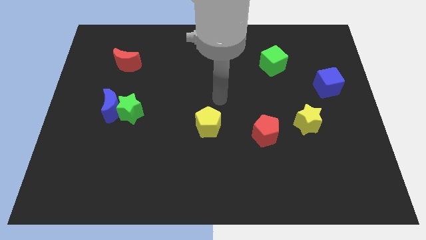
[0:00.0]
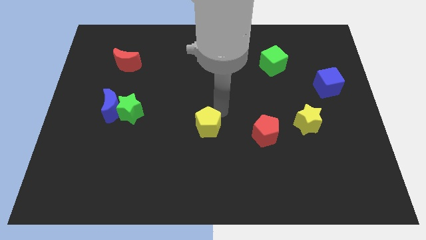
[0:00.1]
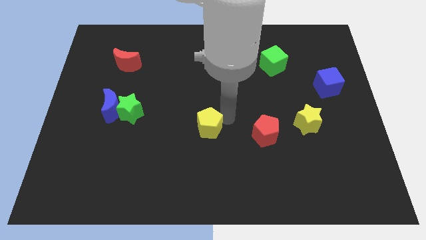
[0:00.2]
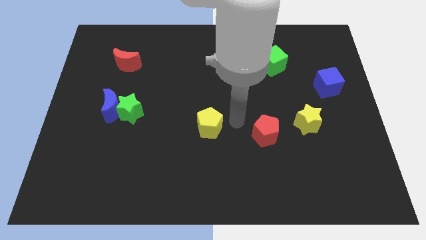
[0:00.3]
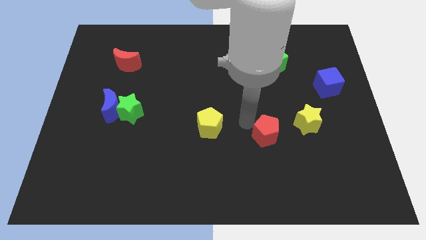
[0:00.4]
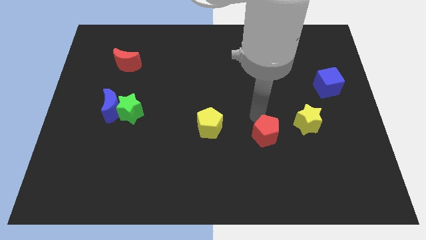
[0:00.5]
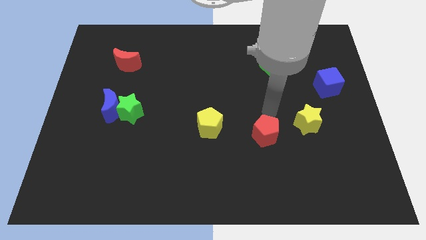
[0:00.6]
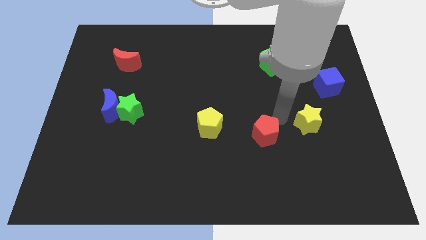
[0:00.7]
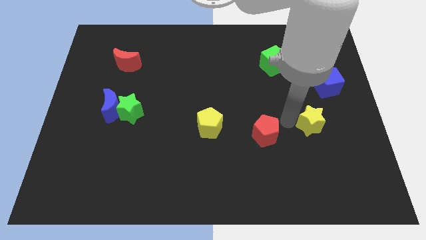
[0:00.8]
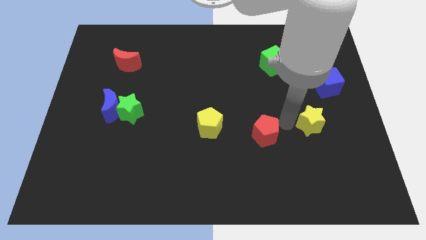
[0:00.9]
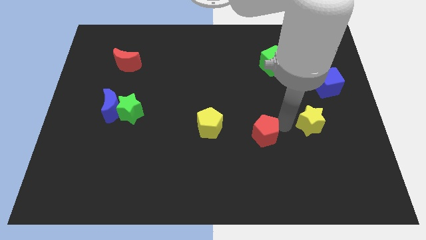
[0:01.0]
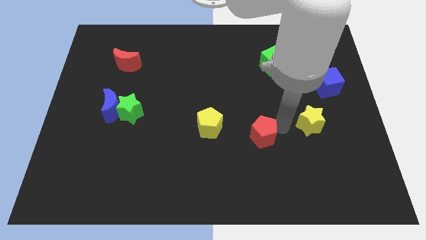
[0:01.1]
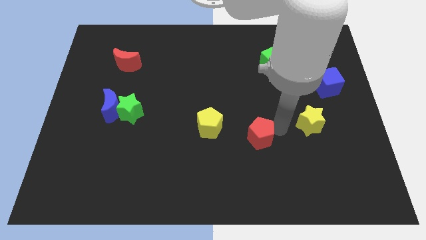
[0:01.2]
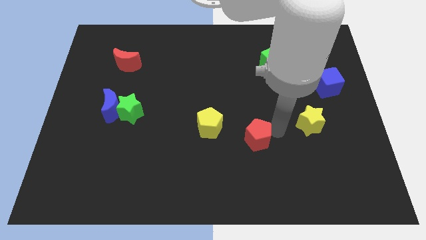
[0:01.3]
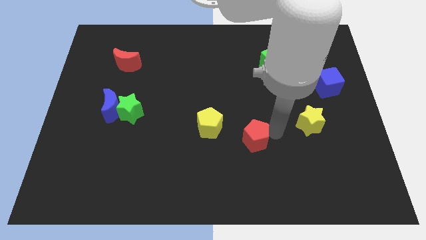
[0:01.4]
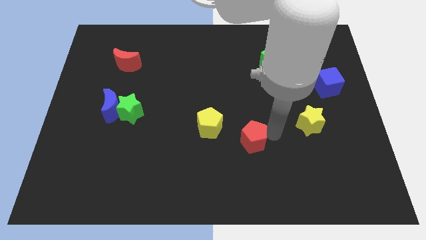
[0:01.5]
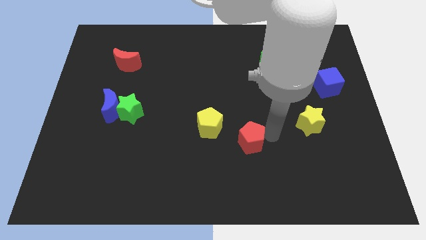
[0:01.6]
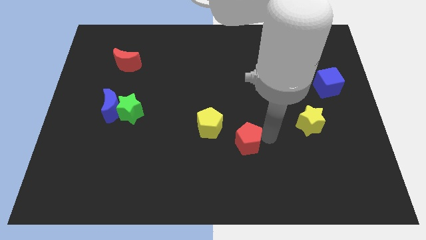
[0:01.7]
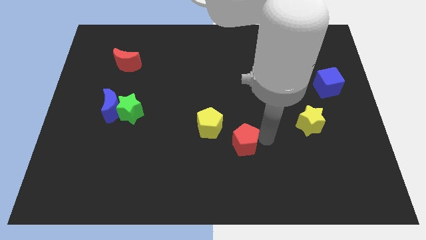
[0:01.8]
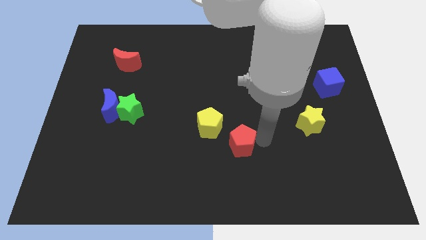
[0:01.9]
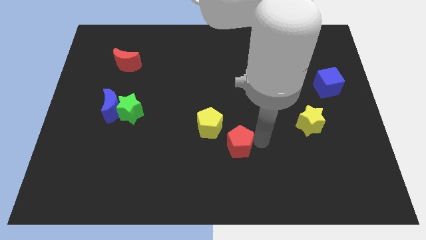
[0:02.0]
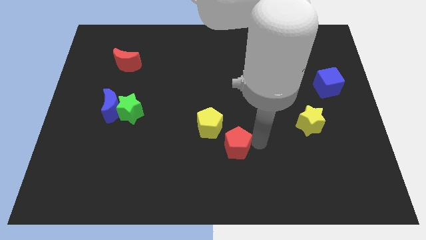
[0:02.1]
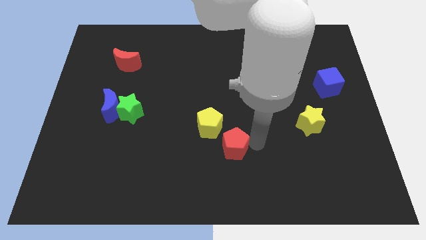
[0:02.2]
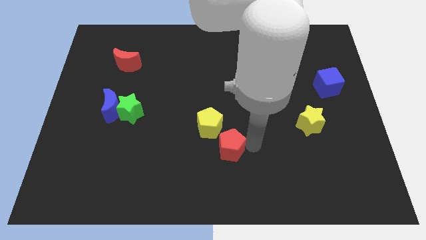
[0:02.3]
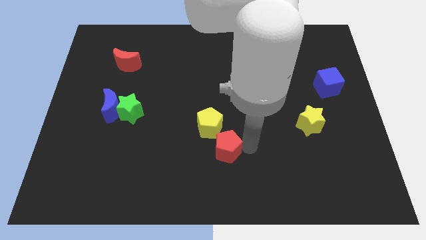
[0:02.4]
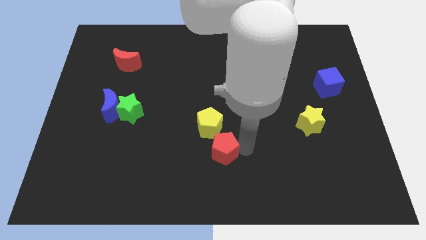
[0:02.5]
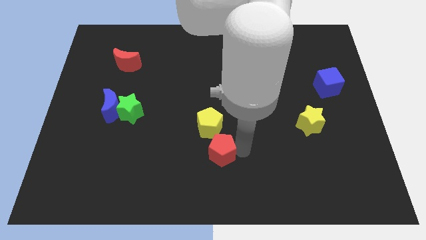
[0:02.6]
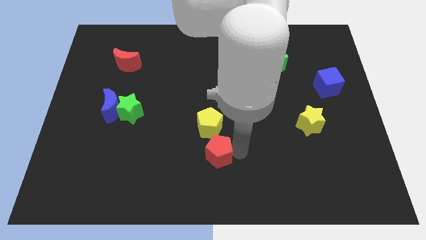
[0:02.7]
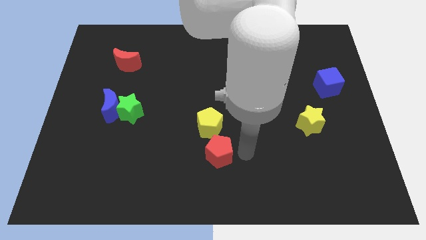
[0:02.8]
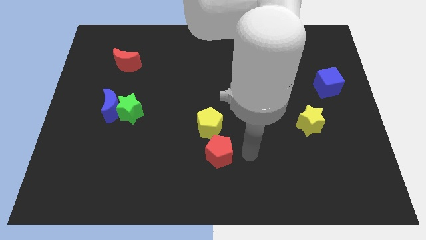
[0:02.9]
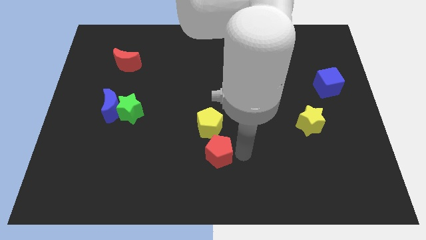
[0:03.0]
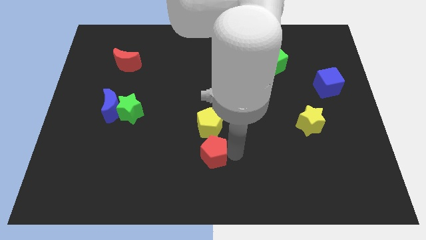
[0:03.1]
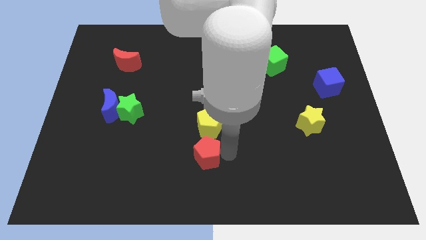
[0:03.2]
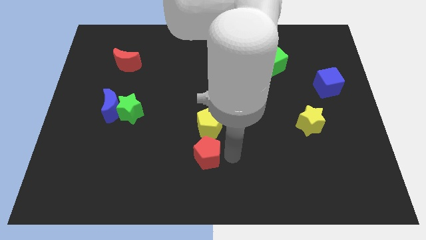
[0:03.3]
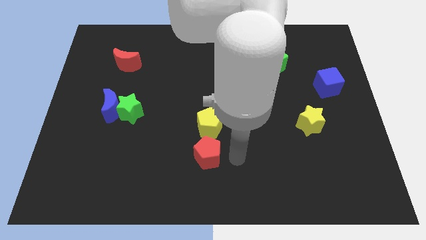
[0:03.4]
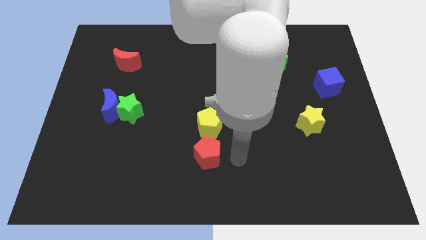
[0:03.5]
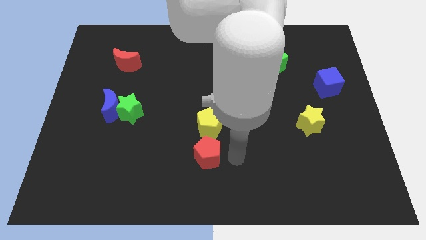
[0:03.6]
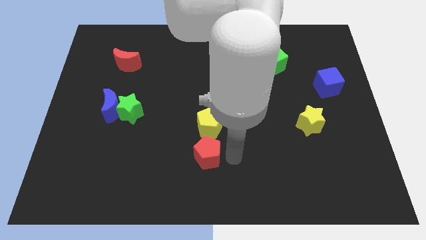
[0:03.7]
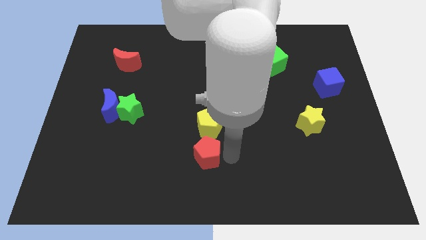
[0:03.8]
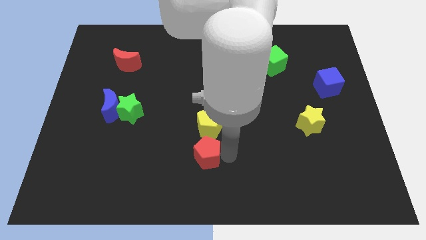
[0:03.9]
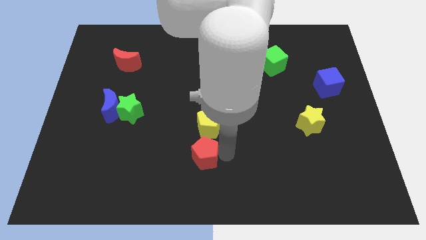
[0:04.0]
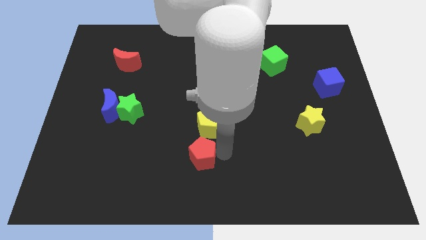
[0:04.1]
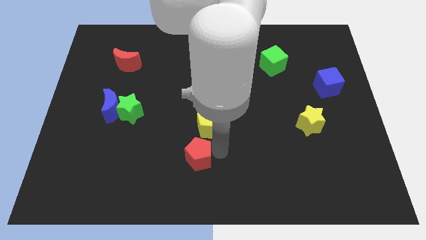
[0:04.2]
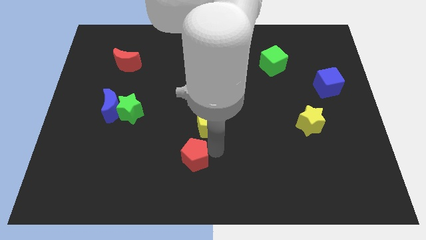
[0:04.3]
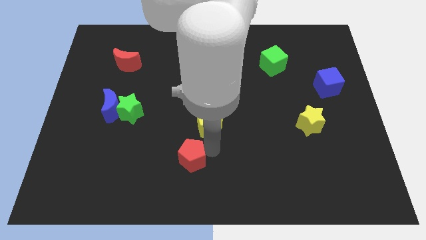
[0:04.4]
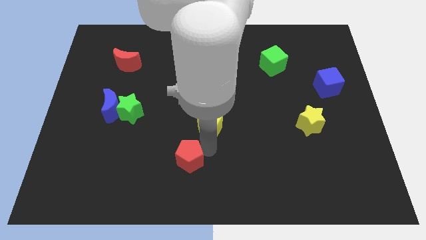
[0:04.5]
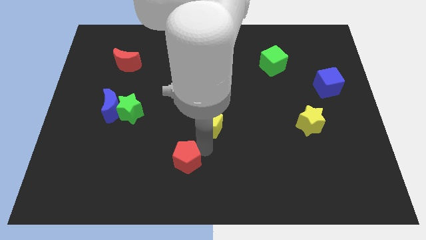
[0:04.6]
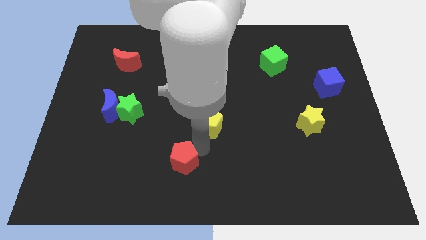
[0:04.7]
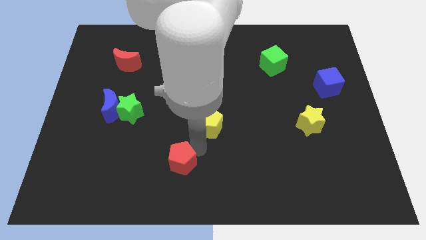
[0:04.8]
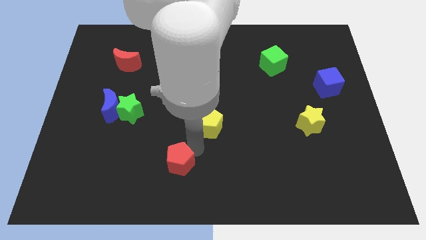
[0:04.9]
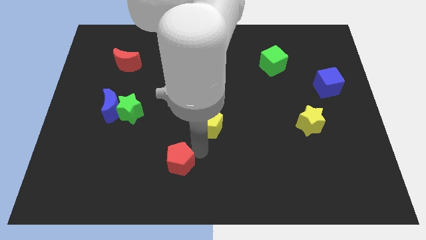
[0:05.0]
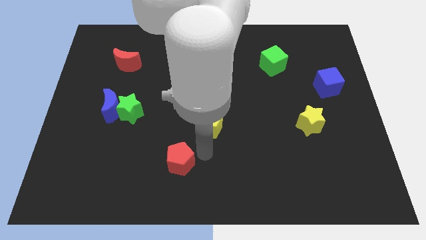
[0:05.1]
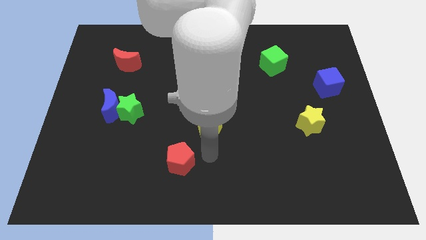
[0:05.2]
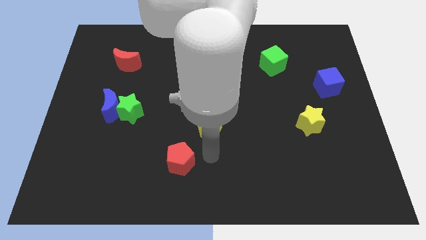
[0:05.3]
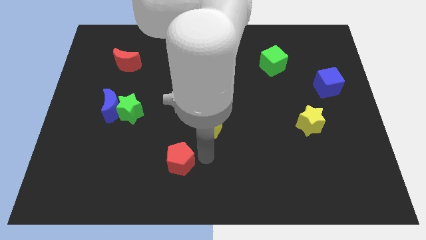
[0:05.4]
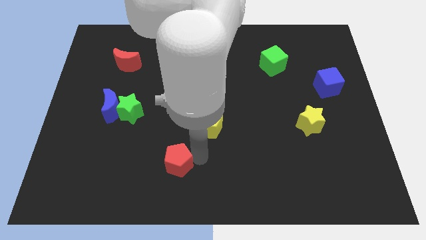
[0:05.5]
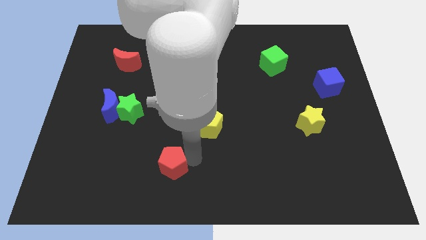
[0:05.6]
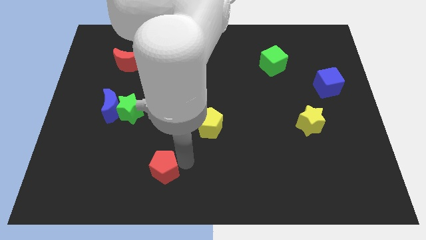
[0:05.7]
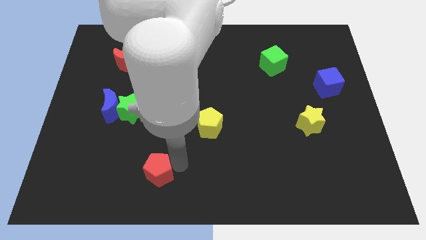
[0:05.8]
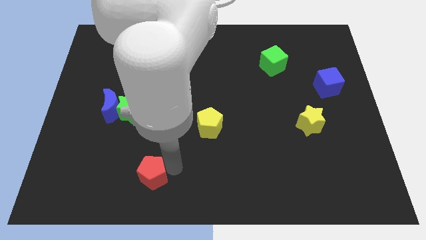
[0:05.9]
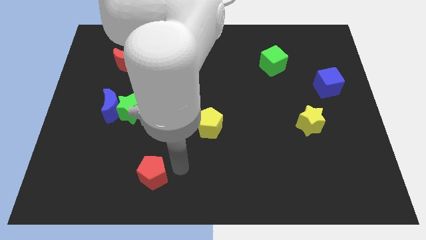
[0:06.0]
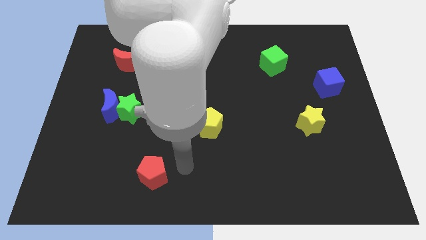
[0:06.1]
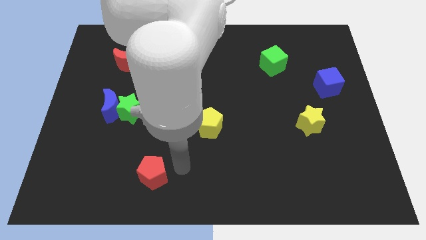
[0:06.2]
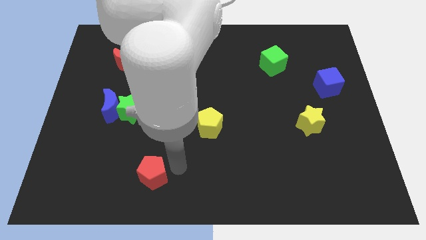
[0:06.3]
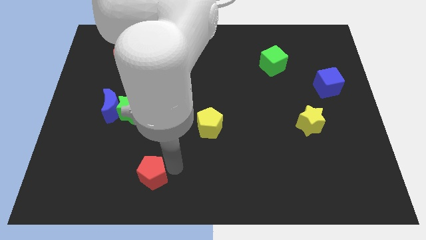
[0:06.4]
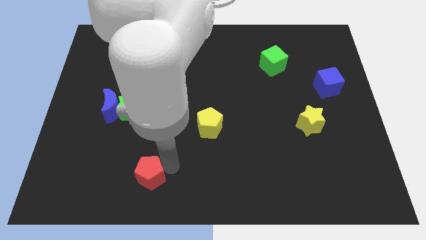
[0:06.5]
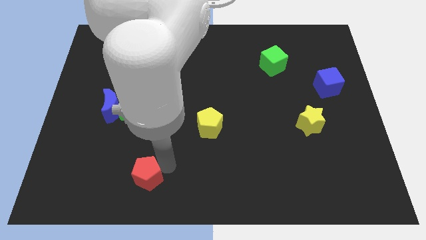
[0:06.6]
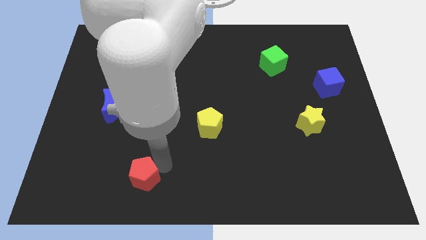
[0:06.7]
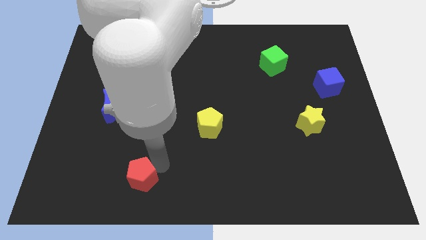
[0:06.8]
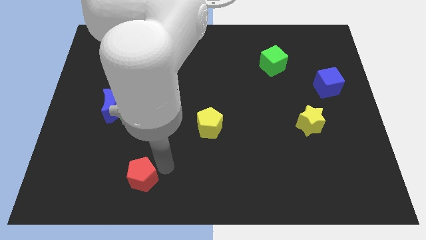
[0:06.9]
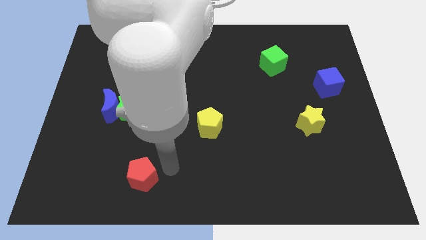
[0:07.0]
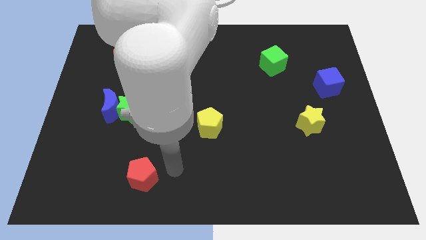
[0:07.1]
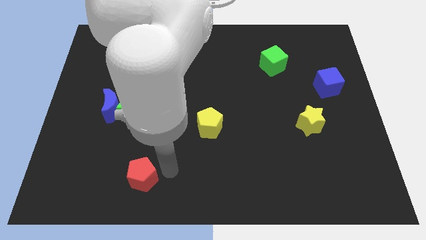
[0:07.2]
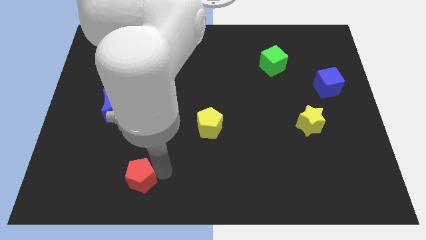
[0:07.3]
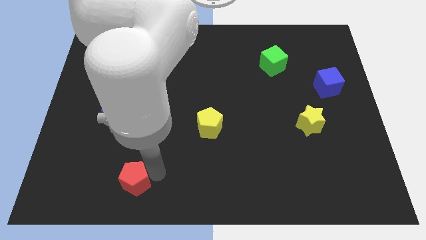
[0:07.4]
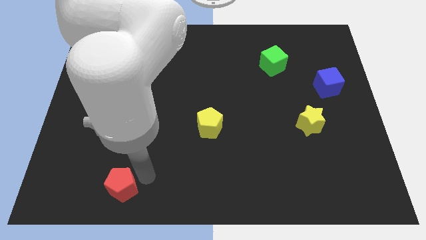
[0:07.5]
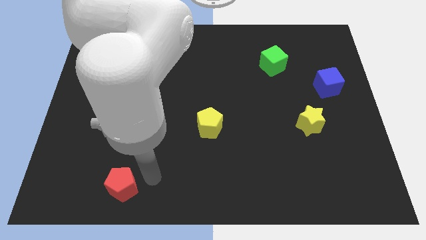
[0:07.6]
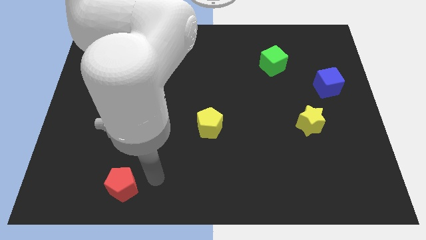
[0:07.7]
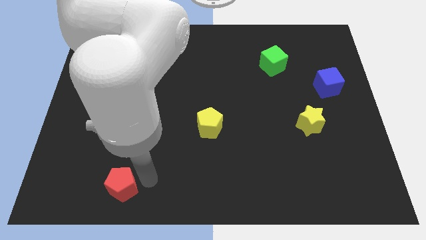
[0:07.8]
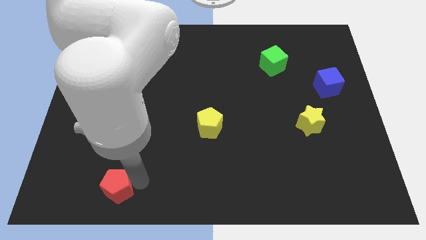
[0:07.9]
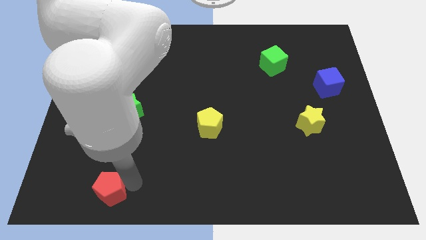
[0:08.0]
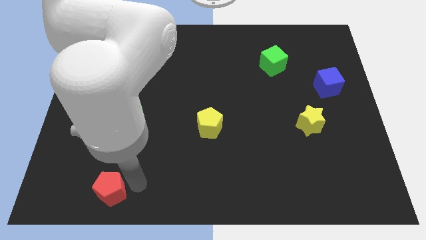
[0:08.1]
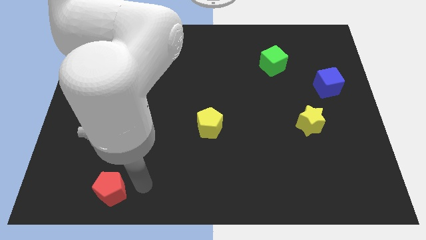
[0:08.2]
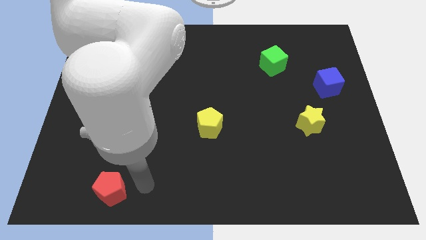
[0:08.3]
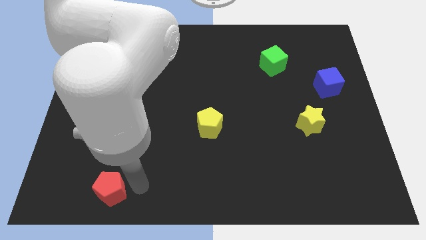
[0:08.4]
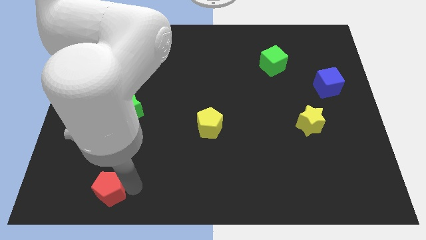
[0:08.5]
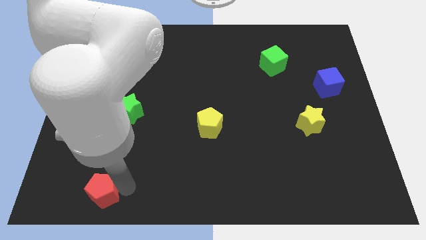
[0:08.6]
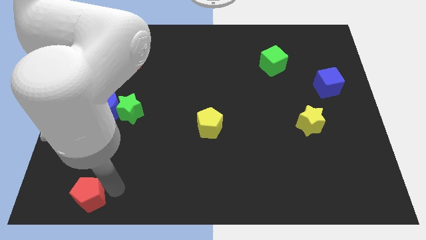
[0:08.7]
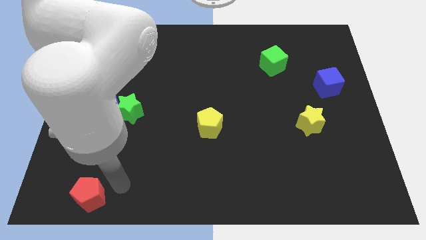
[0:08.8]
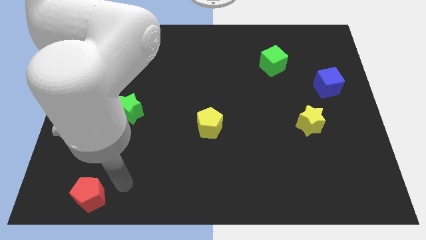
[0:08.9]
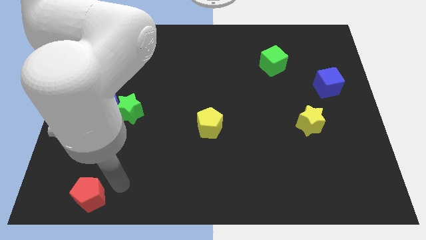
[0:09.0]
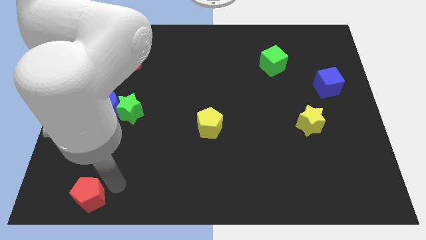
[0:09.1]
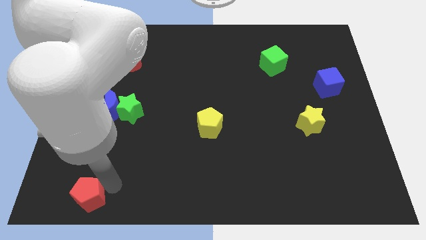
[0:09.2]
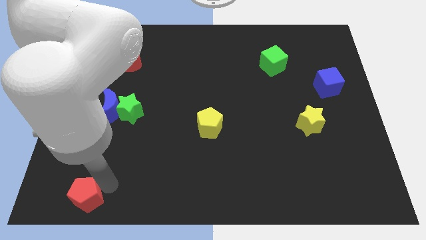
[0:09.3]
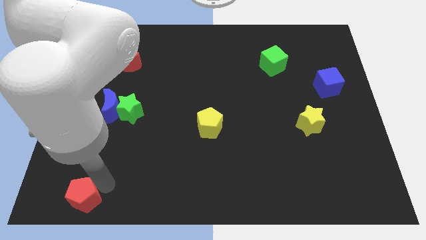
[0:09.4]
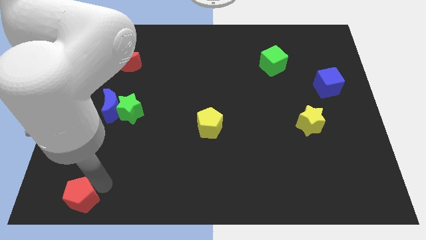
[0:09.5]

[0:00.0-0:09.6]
move the red pentagon to the lower left corner
